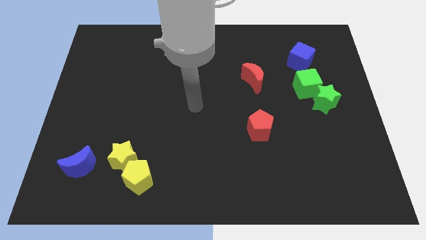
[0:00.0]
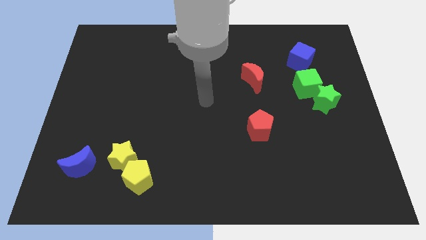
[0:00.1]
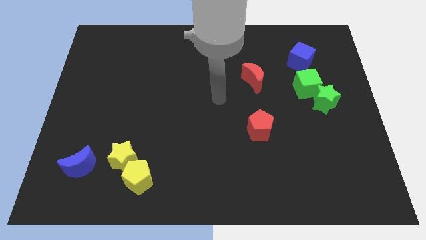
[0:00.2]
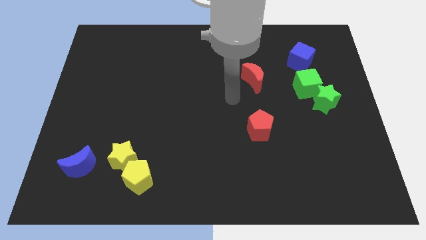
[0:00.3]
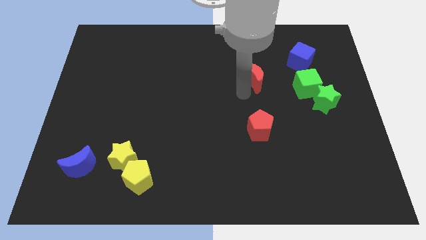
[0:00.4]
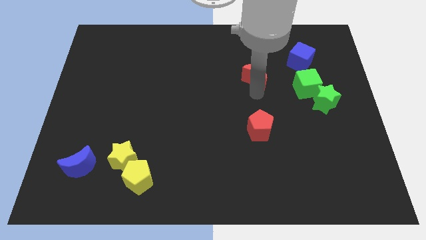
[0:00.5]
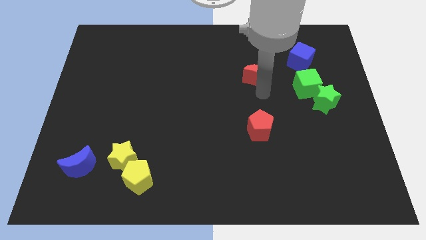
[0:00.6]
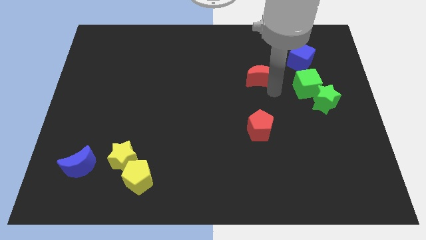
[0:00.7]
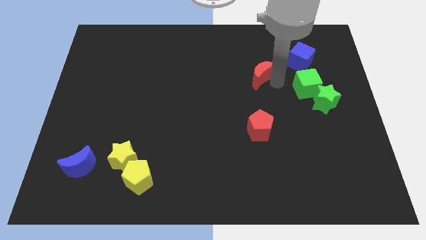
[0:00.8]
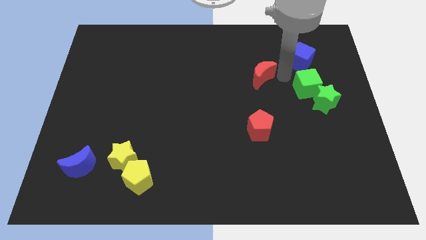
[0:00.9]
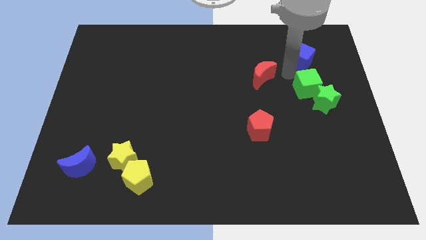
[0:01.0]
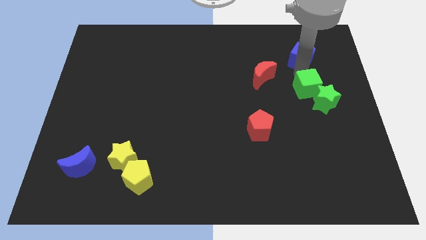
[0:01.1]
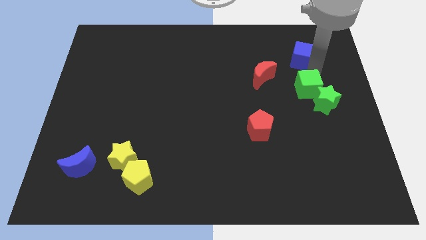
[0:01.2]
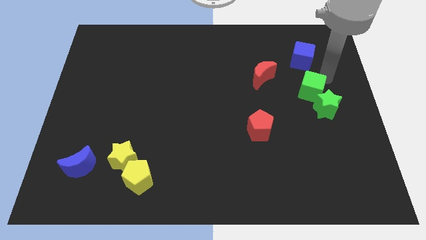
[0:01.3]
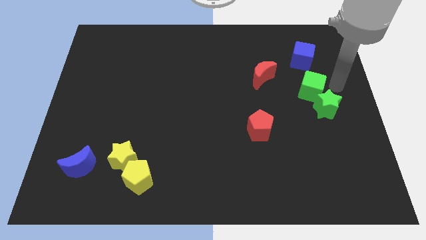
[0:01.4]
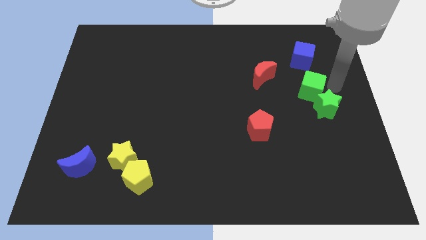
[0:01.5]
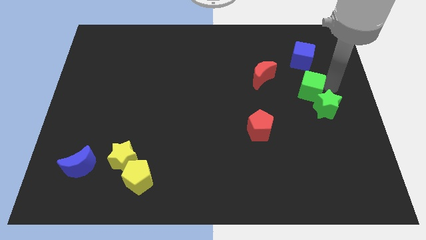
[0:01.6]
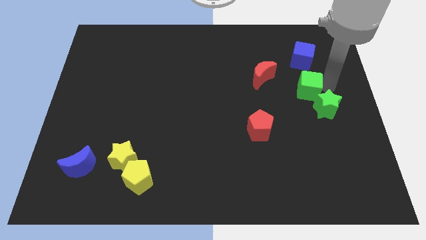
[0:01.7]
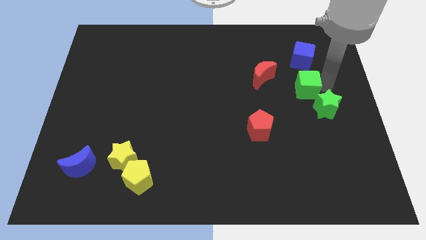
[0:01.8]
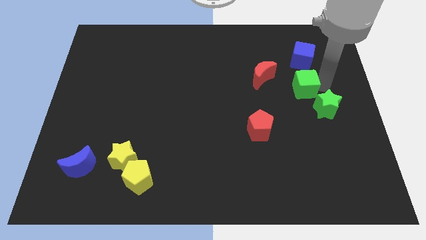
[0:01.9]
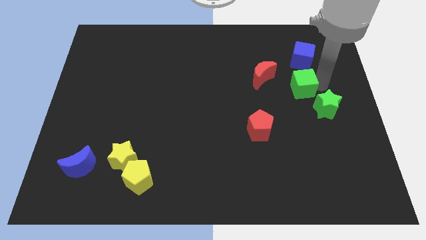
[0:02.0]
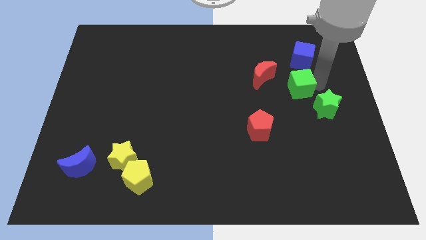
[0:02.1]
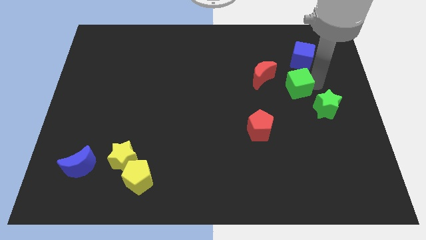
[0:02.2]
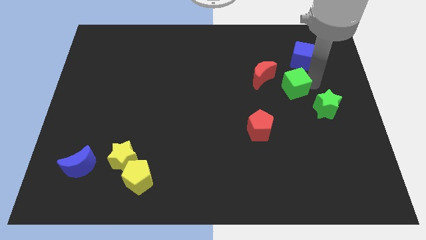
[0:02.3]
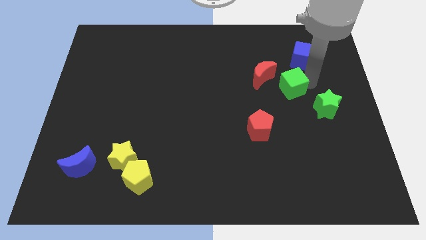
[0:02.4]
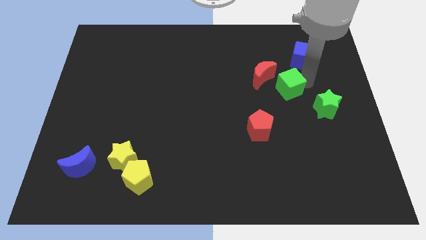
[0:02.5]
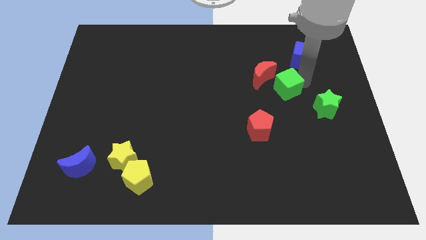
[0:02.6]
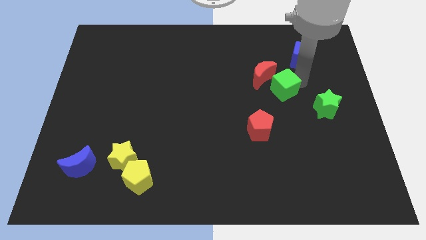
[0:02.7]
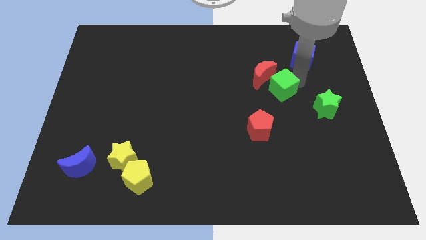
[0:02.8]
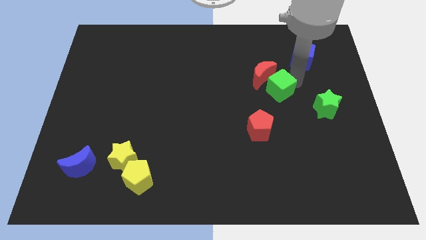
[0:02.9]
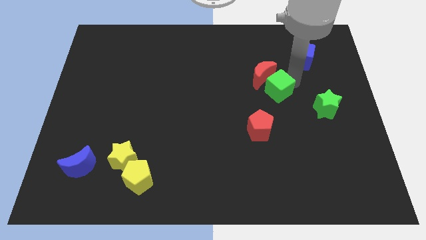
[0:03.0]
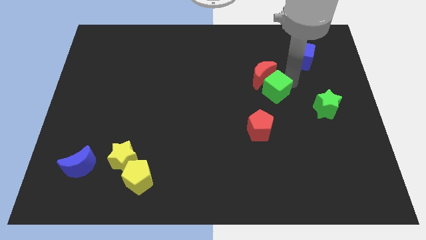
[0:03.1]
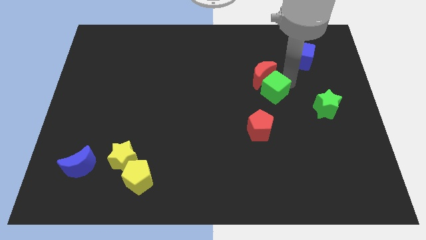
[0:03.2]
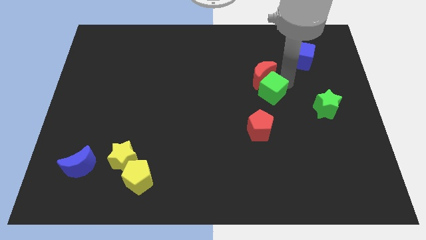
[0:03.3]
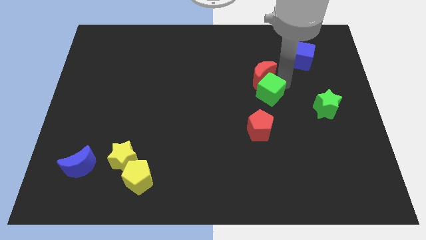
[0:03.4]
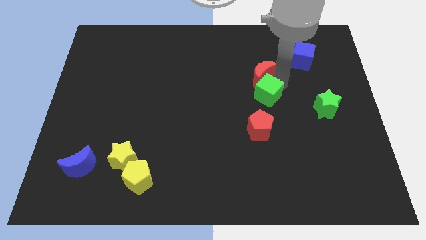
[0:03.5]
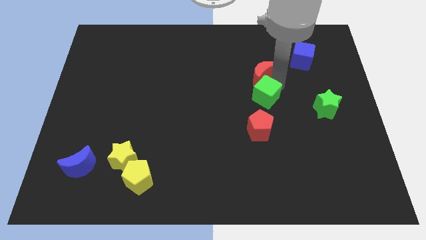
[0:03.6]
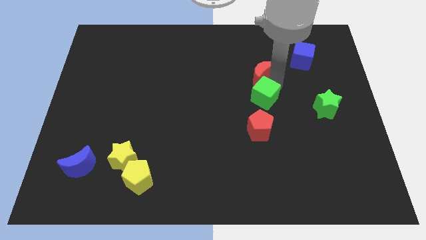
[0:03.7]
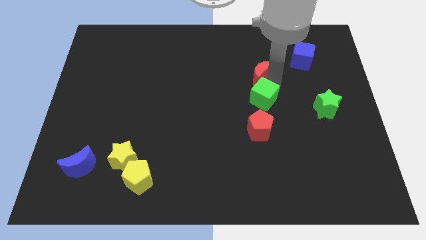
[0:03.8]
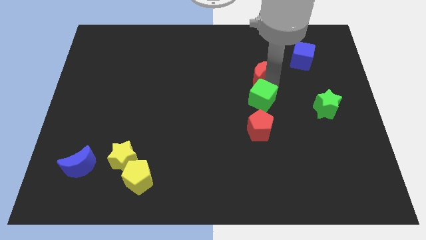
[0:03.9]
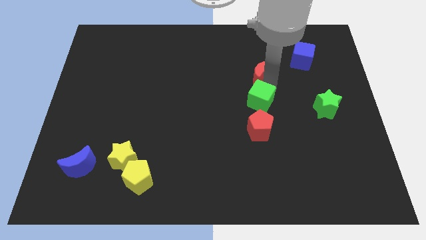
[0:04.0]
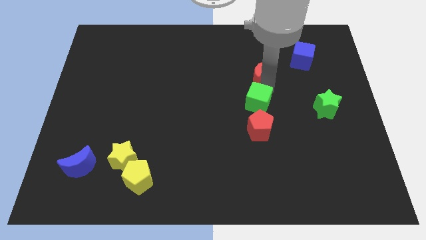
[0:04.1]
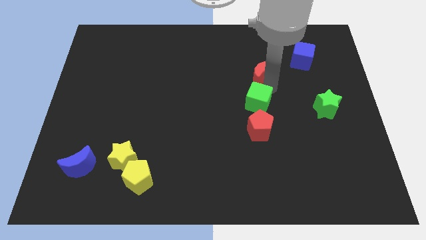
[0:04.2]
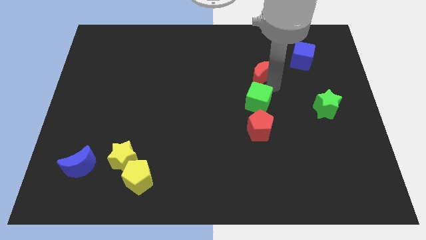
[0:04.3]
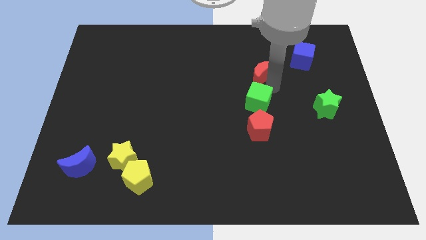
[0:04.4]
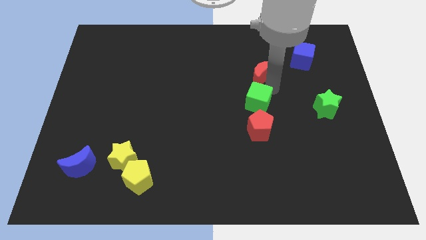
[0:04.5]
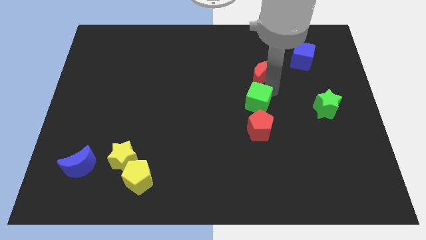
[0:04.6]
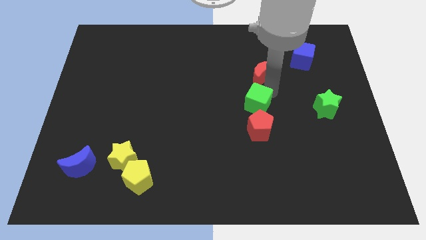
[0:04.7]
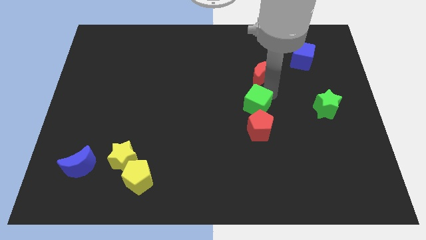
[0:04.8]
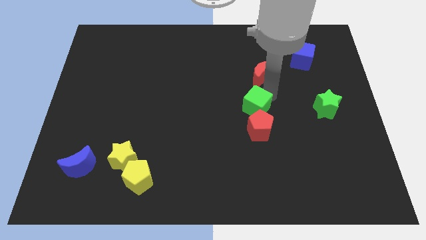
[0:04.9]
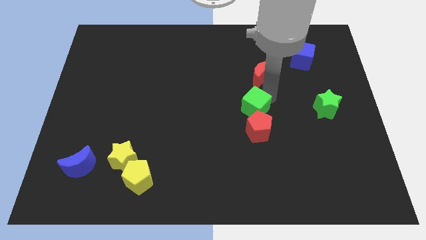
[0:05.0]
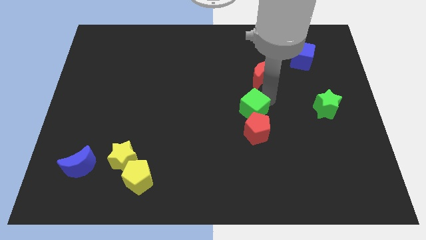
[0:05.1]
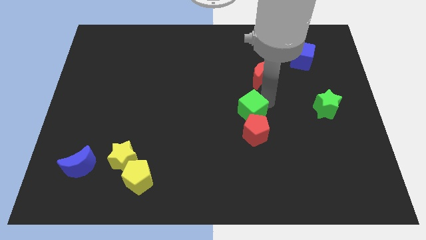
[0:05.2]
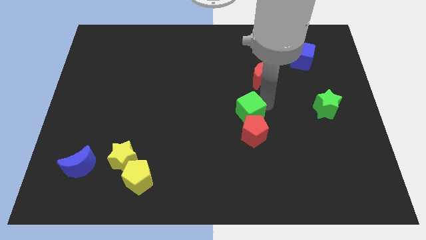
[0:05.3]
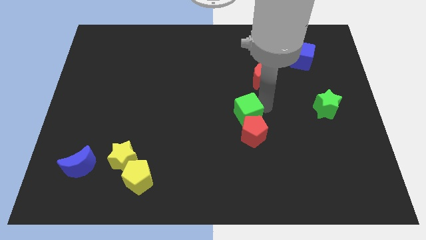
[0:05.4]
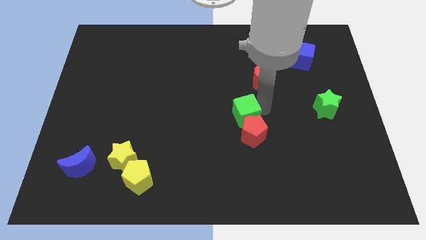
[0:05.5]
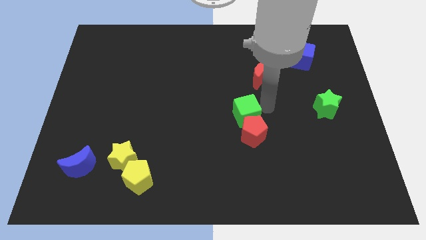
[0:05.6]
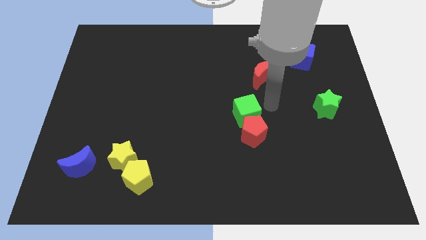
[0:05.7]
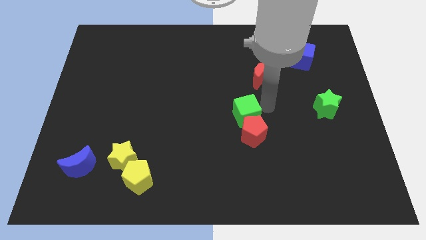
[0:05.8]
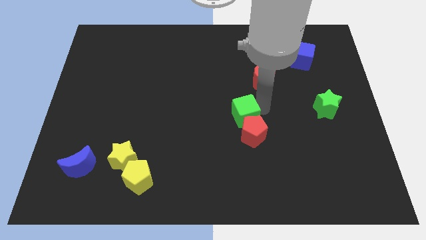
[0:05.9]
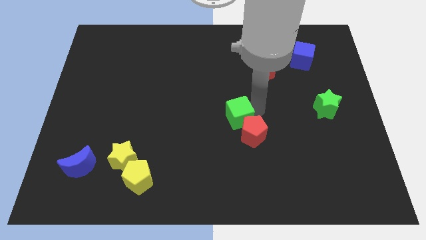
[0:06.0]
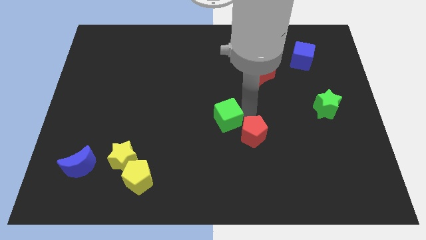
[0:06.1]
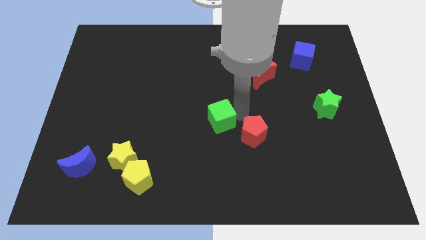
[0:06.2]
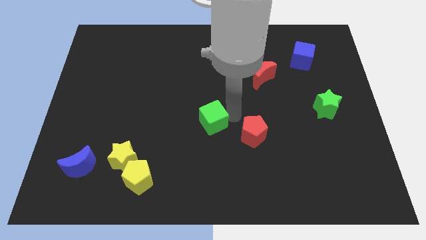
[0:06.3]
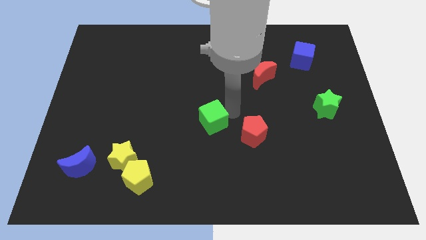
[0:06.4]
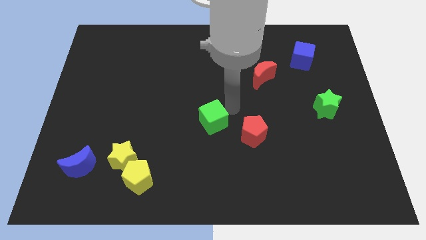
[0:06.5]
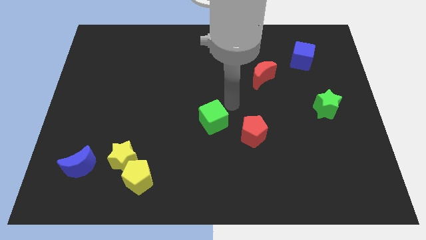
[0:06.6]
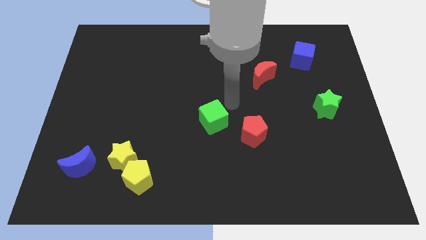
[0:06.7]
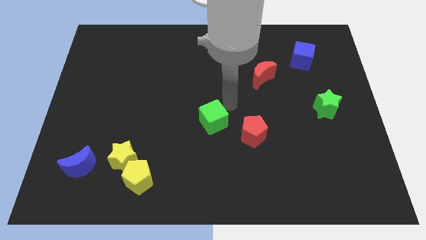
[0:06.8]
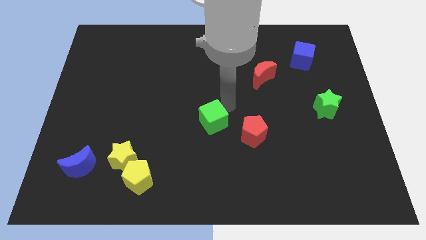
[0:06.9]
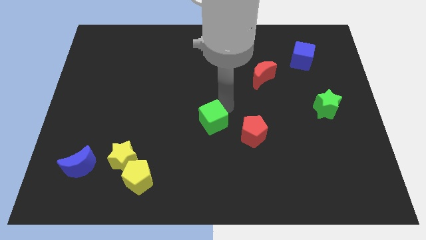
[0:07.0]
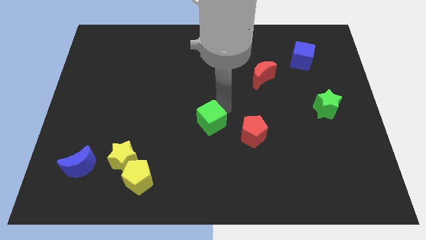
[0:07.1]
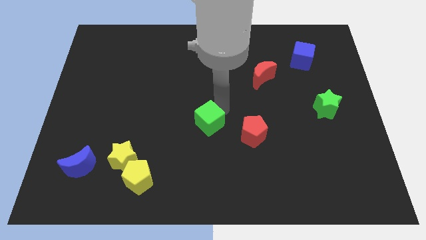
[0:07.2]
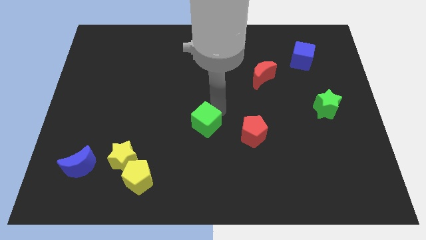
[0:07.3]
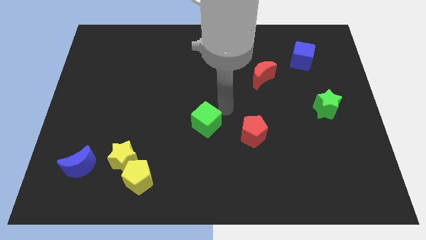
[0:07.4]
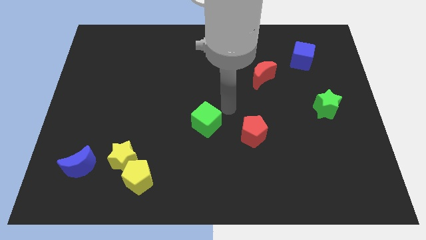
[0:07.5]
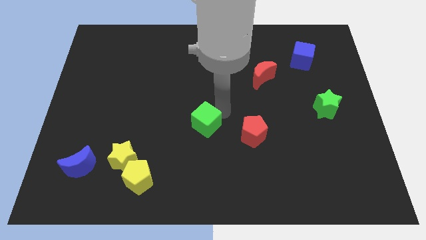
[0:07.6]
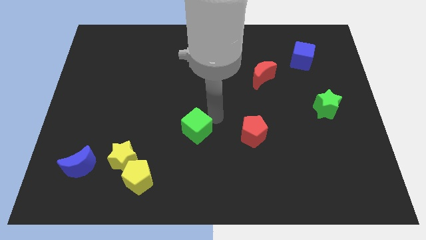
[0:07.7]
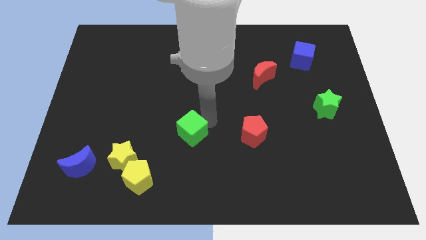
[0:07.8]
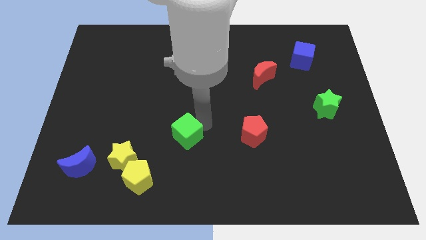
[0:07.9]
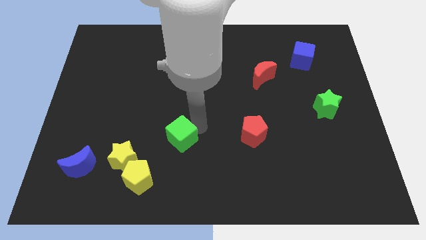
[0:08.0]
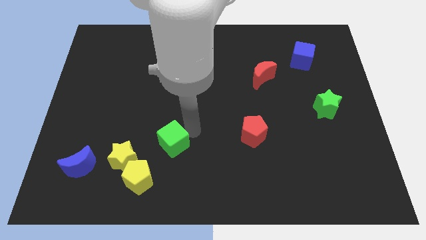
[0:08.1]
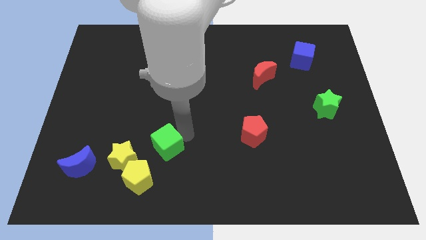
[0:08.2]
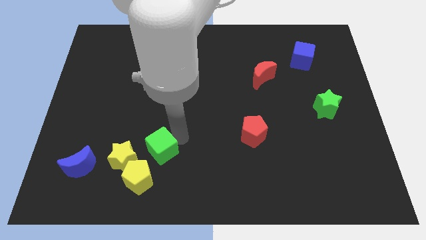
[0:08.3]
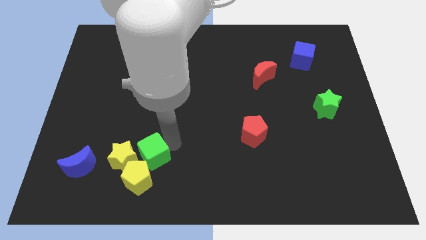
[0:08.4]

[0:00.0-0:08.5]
put the green cube close to the yellow star
